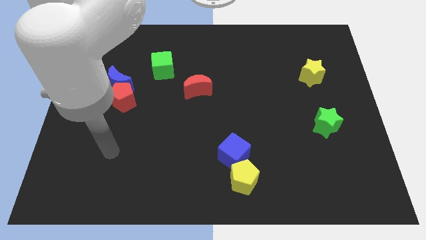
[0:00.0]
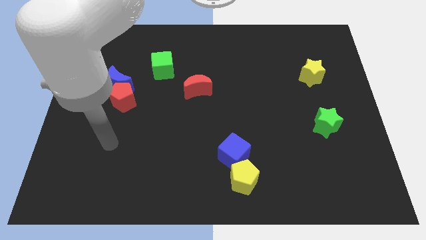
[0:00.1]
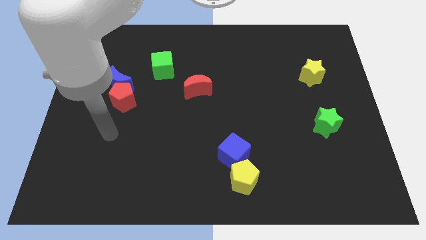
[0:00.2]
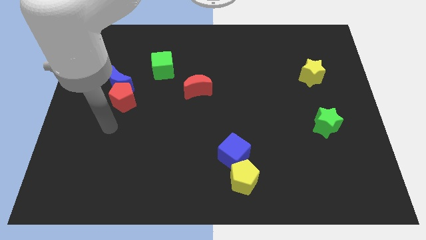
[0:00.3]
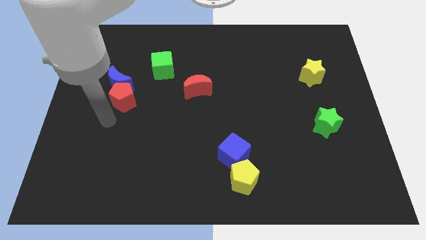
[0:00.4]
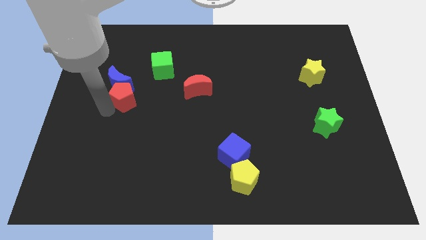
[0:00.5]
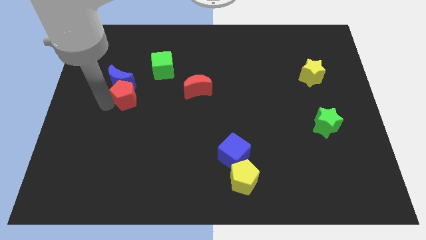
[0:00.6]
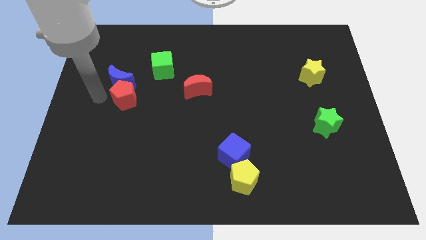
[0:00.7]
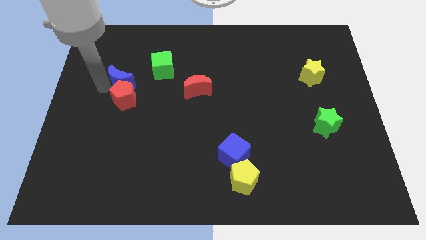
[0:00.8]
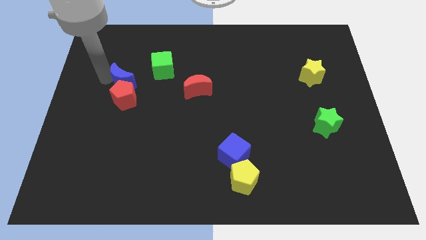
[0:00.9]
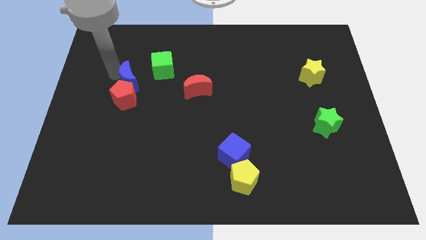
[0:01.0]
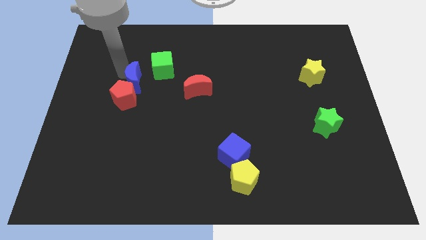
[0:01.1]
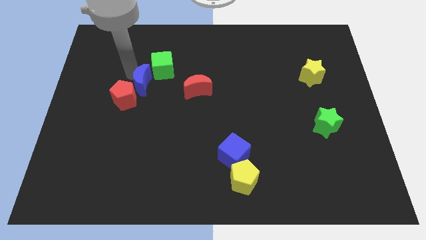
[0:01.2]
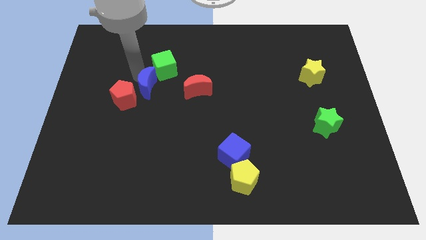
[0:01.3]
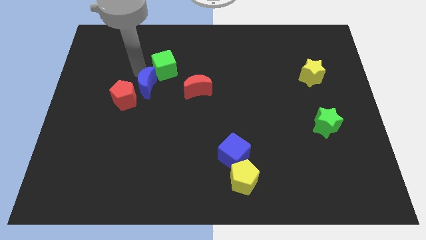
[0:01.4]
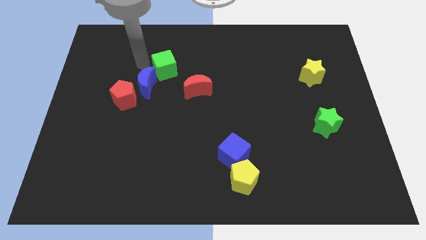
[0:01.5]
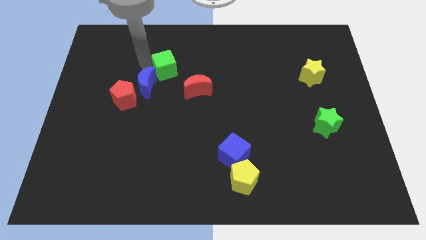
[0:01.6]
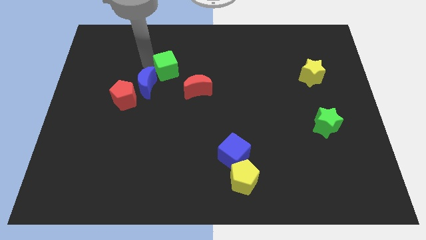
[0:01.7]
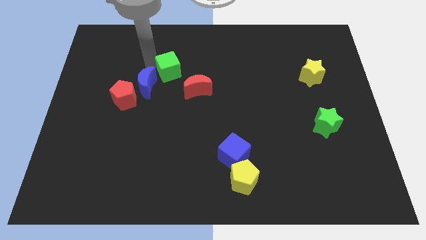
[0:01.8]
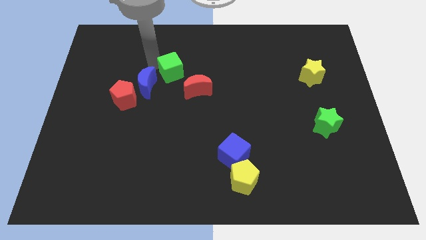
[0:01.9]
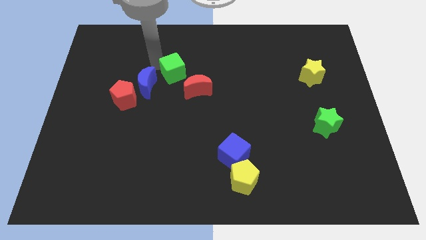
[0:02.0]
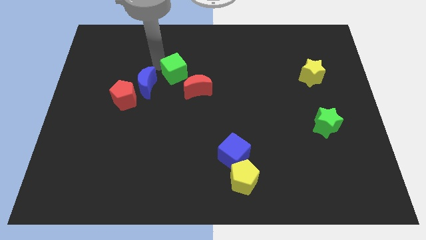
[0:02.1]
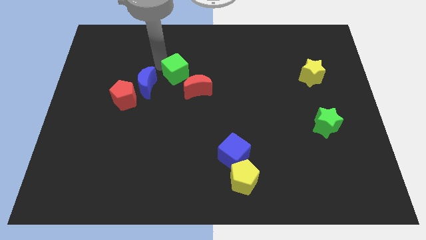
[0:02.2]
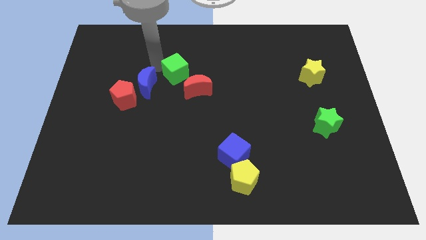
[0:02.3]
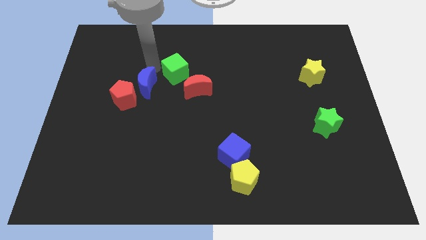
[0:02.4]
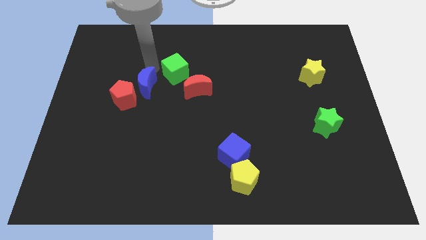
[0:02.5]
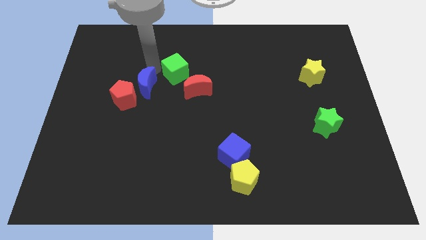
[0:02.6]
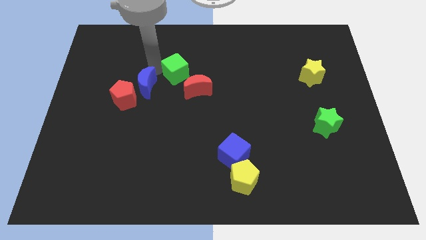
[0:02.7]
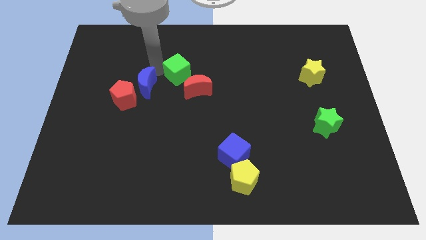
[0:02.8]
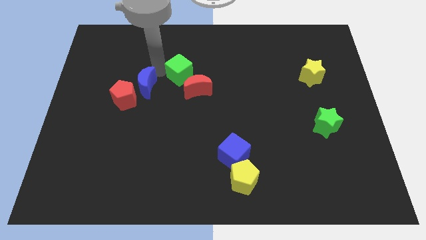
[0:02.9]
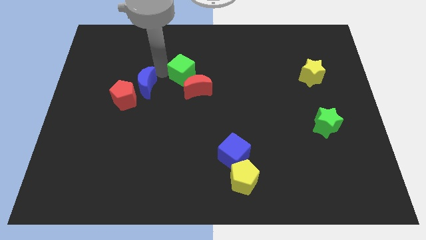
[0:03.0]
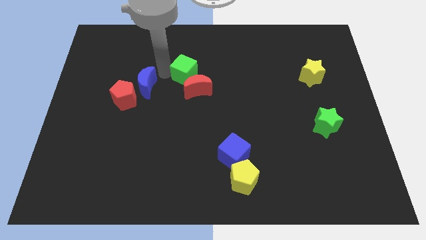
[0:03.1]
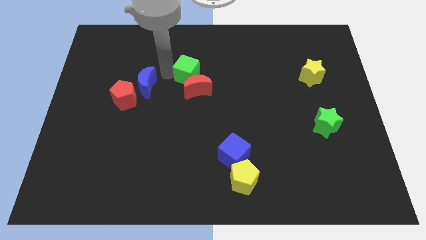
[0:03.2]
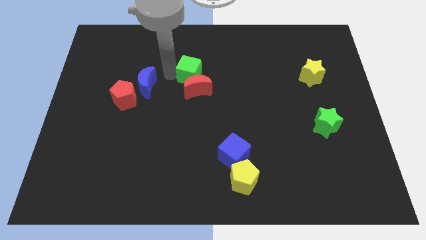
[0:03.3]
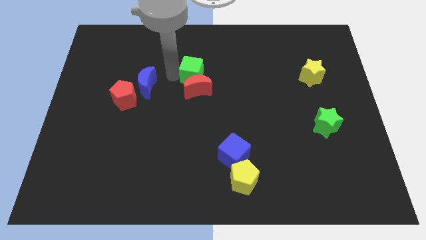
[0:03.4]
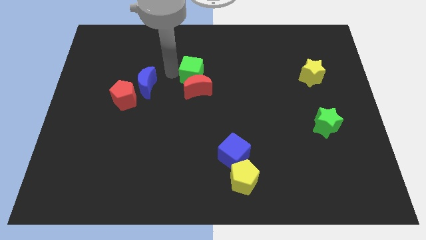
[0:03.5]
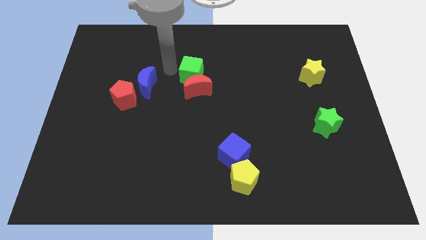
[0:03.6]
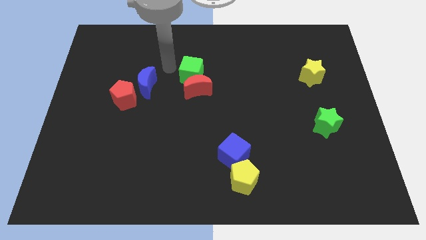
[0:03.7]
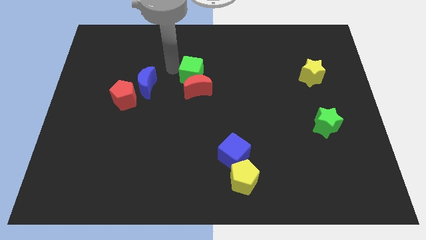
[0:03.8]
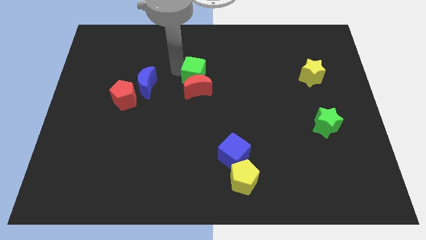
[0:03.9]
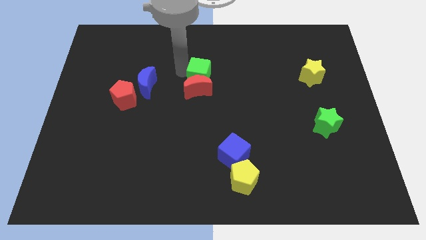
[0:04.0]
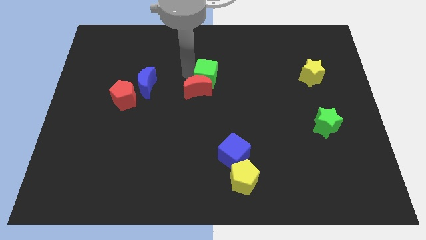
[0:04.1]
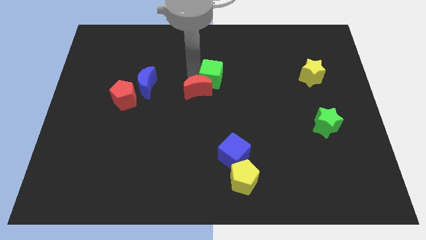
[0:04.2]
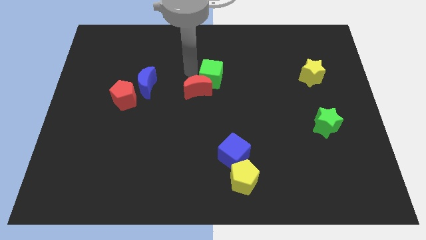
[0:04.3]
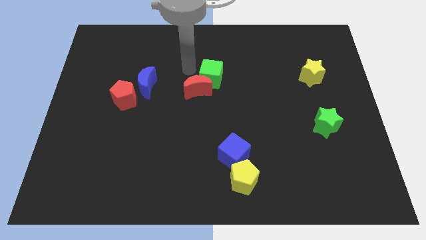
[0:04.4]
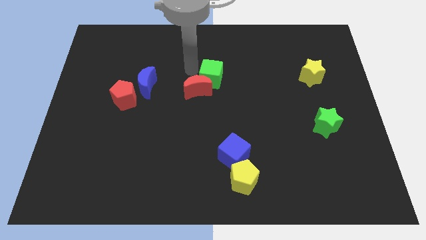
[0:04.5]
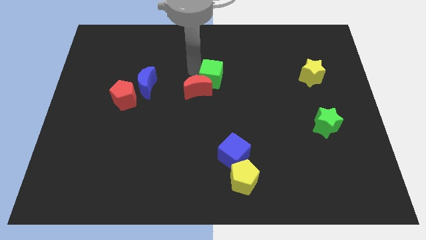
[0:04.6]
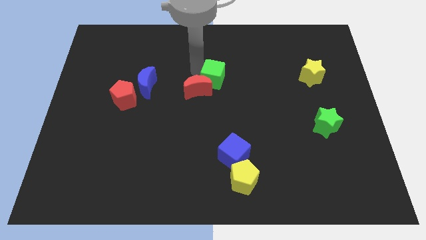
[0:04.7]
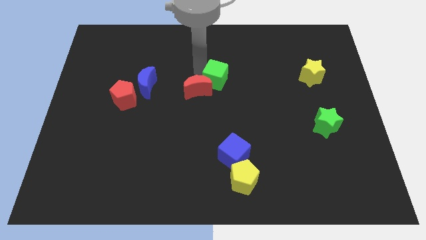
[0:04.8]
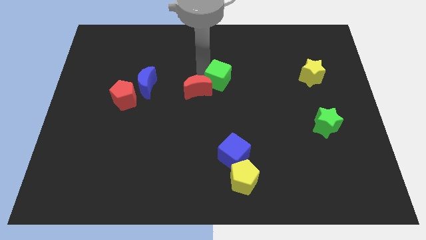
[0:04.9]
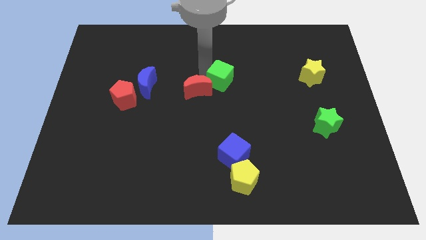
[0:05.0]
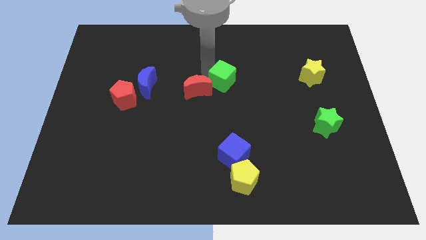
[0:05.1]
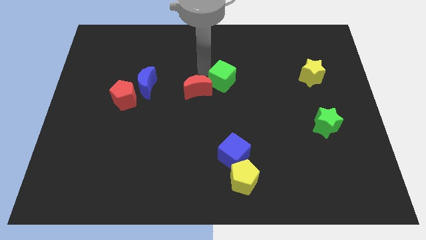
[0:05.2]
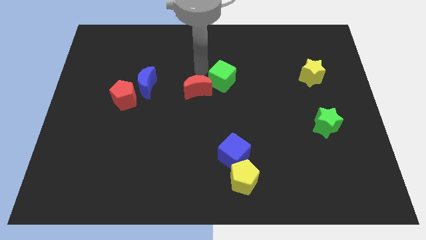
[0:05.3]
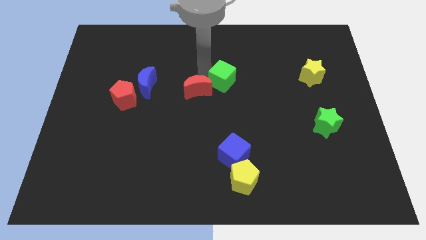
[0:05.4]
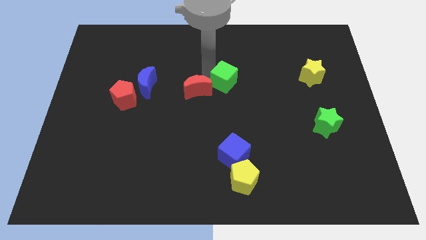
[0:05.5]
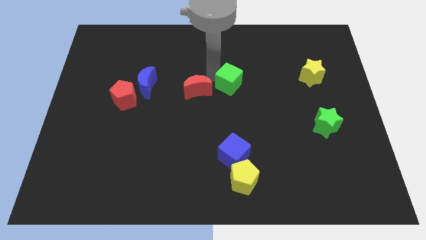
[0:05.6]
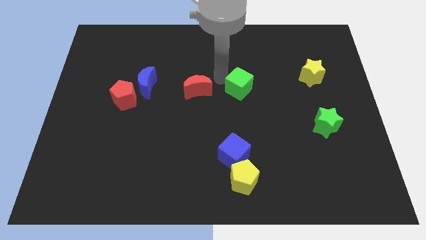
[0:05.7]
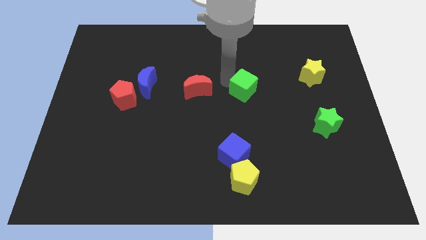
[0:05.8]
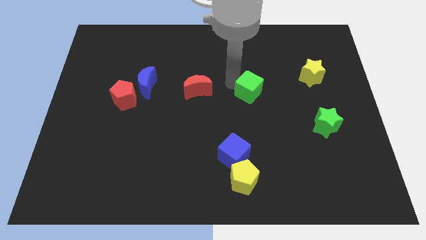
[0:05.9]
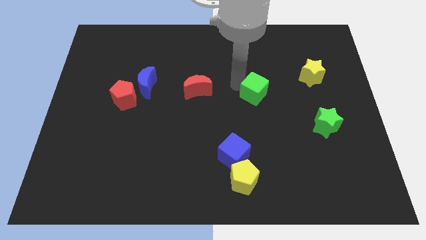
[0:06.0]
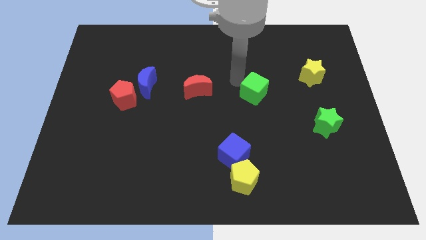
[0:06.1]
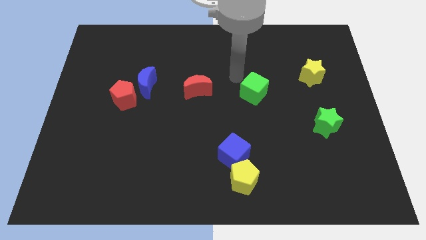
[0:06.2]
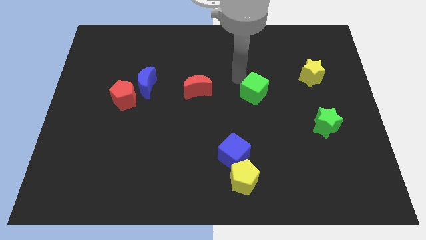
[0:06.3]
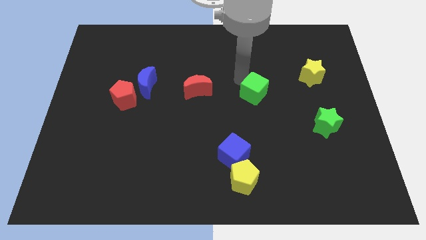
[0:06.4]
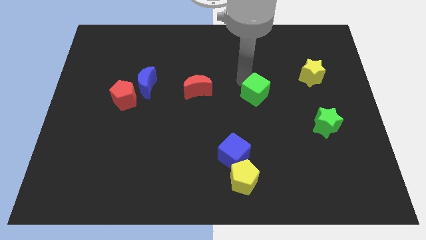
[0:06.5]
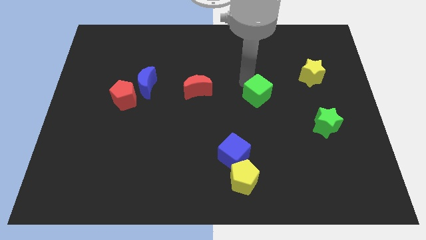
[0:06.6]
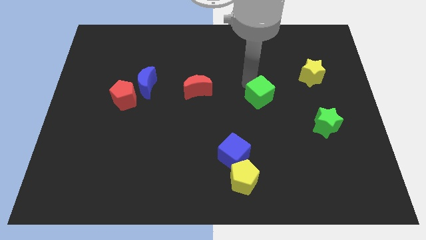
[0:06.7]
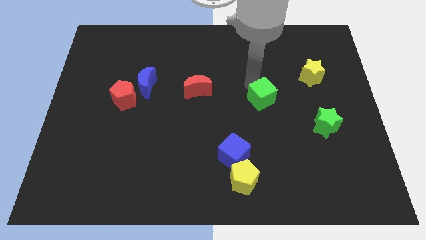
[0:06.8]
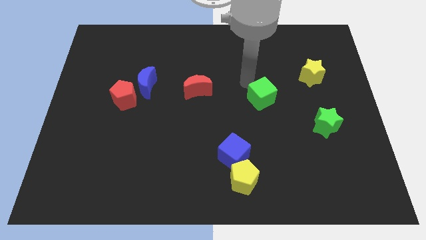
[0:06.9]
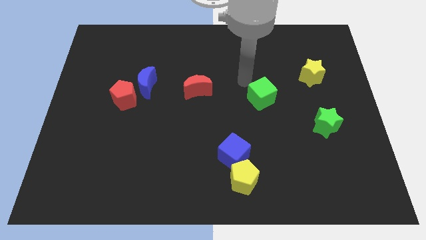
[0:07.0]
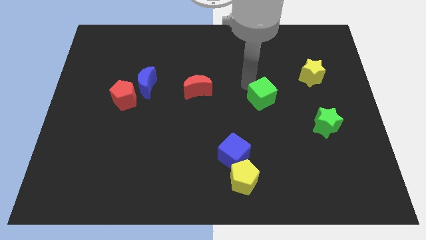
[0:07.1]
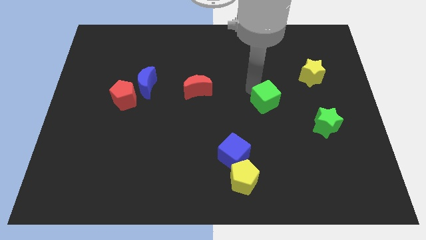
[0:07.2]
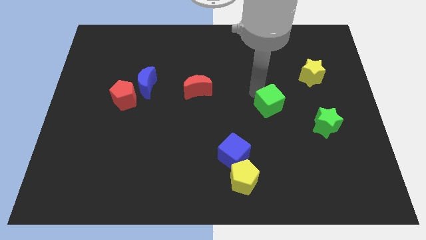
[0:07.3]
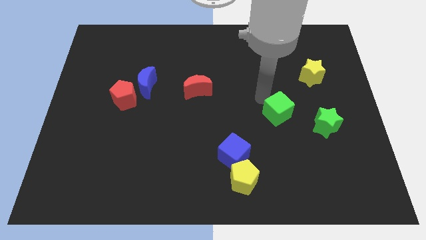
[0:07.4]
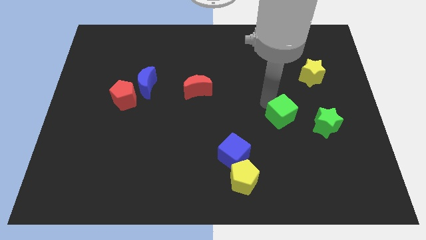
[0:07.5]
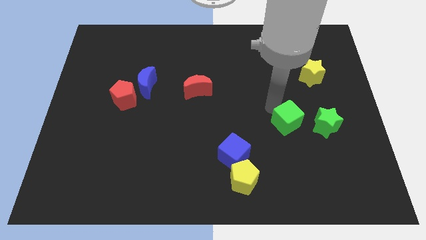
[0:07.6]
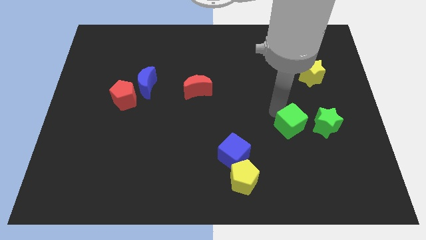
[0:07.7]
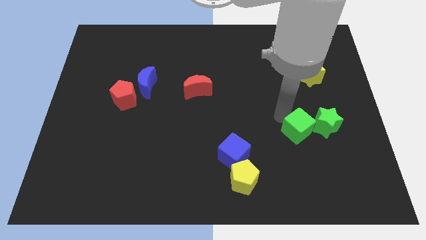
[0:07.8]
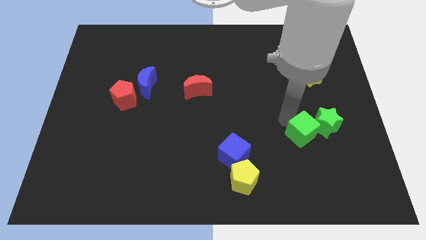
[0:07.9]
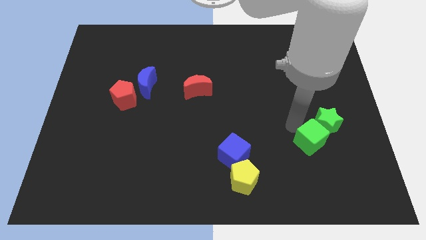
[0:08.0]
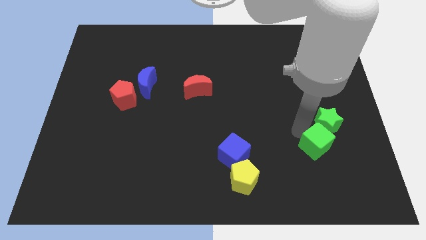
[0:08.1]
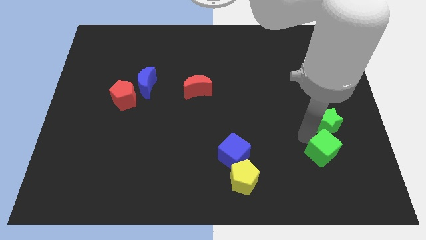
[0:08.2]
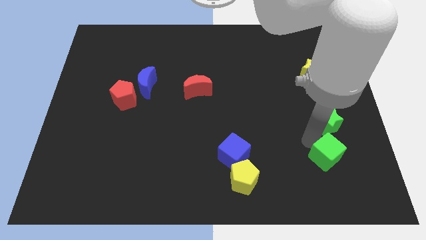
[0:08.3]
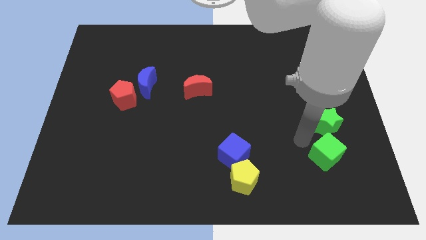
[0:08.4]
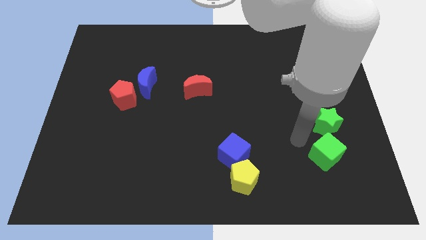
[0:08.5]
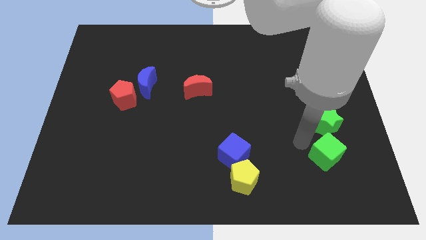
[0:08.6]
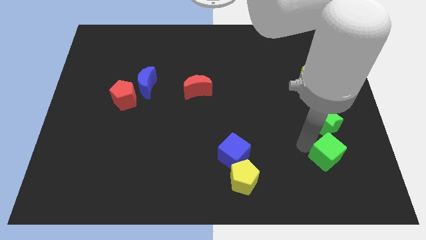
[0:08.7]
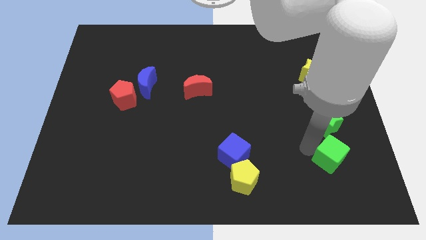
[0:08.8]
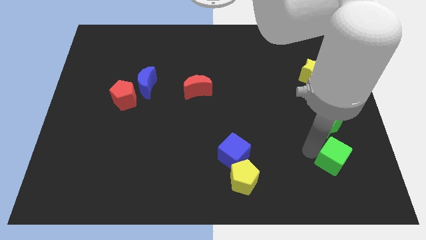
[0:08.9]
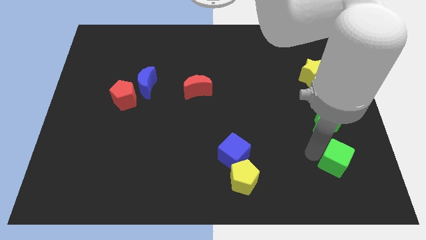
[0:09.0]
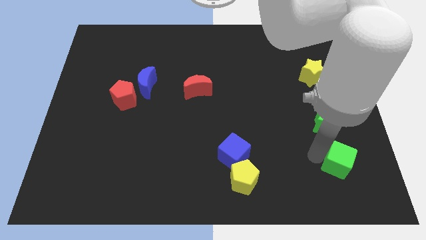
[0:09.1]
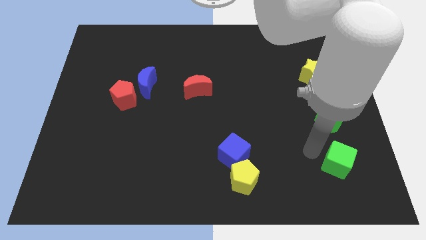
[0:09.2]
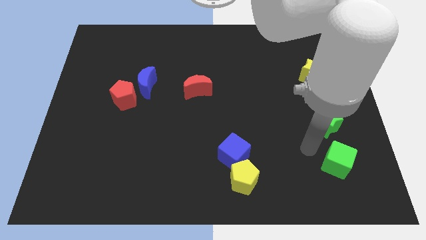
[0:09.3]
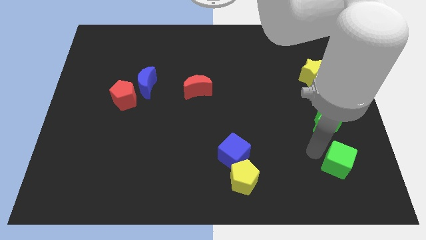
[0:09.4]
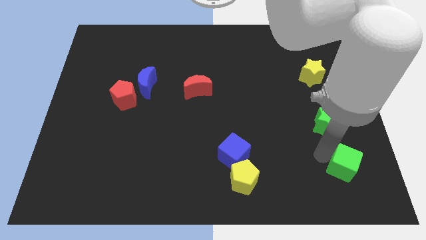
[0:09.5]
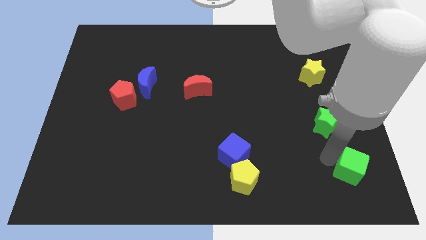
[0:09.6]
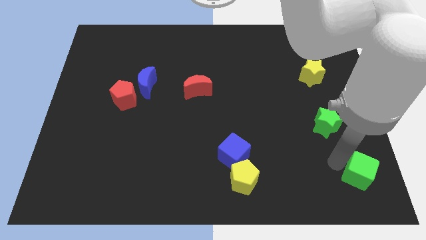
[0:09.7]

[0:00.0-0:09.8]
put the green cube to the bottom right
